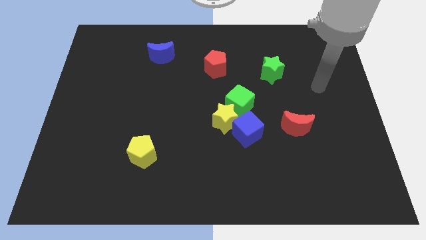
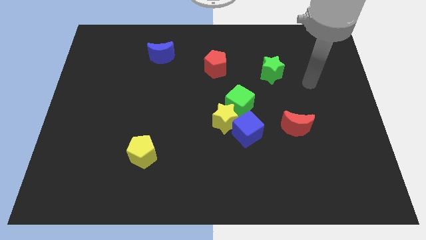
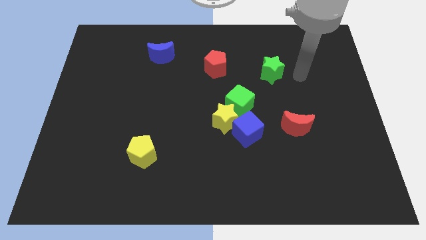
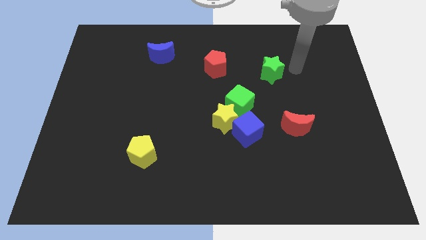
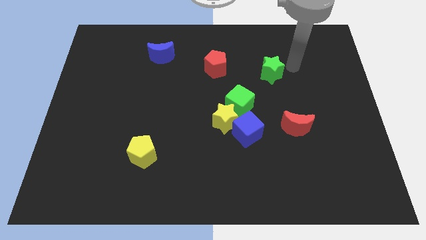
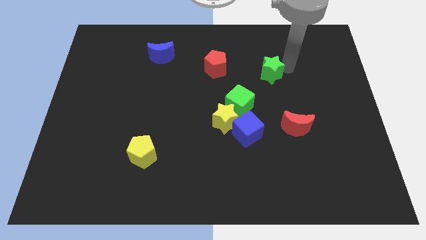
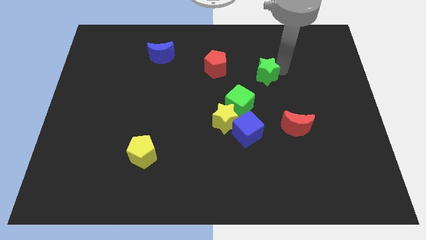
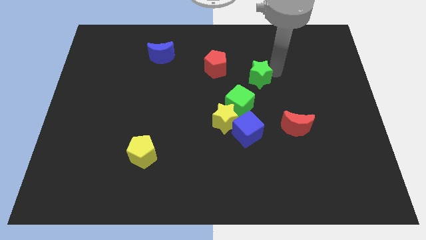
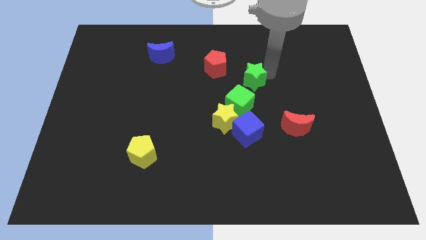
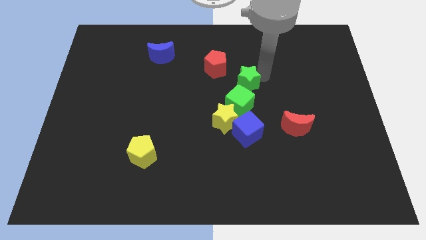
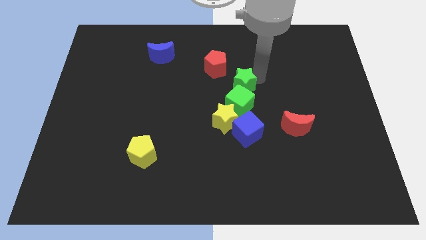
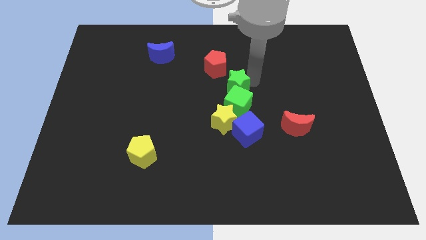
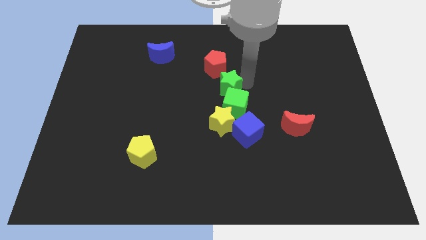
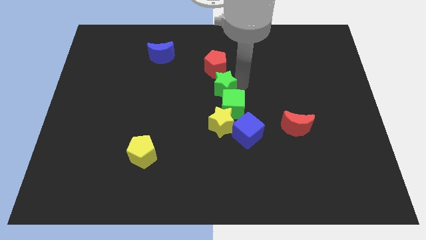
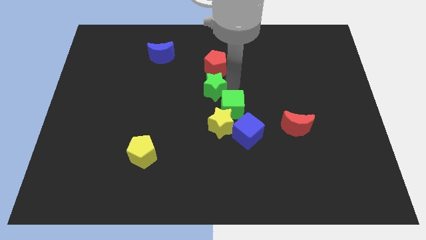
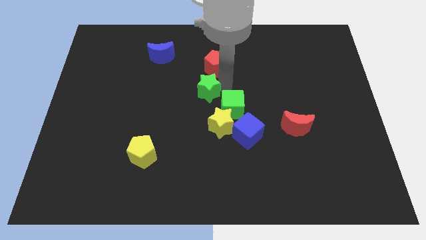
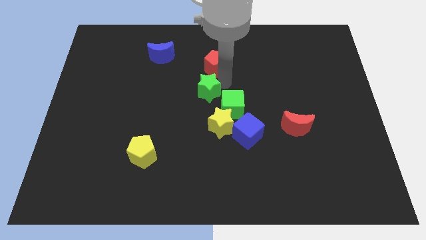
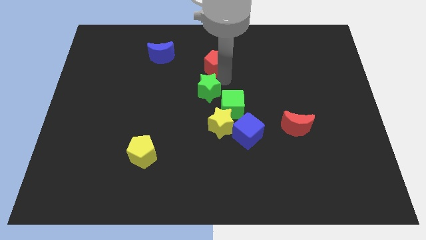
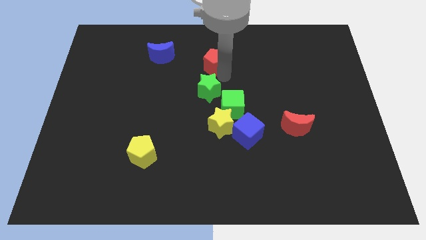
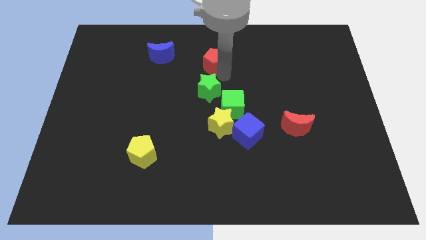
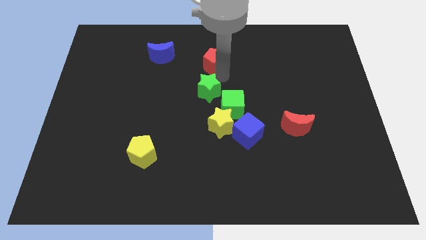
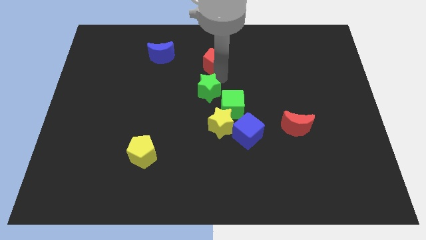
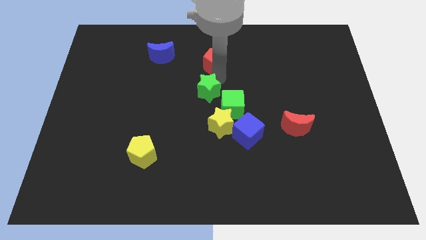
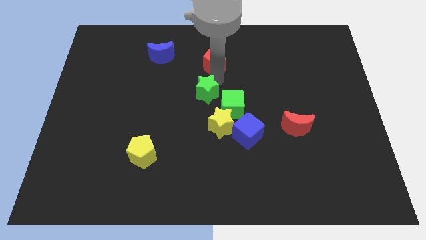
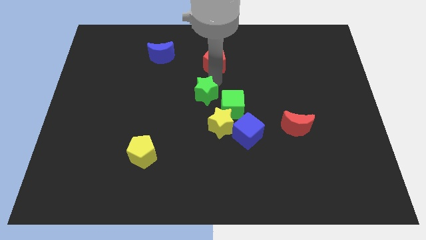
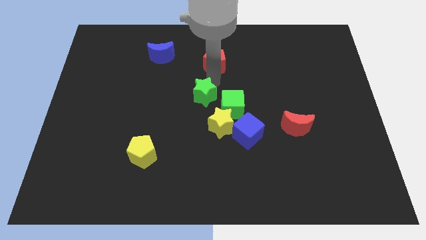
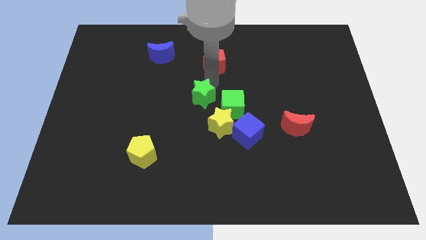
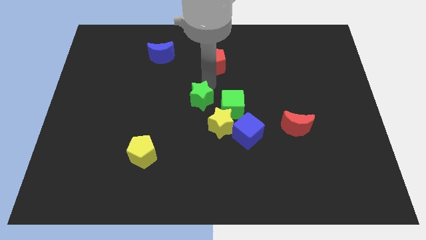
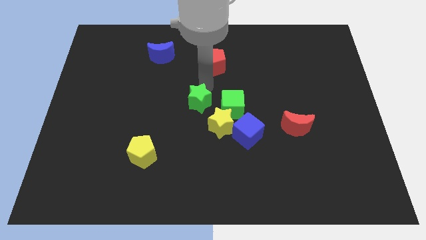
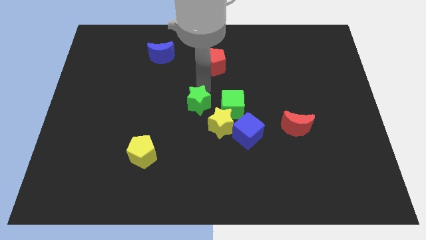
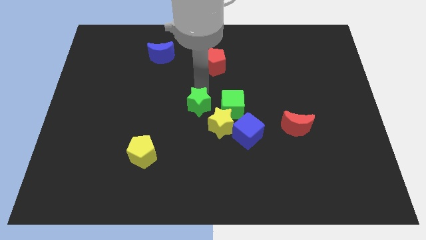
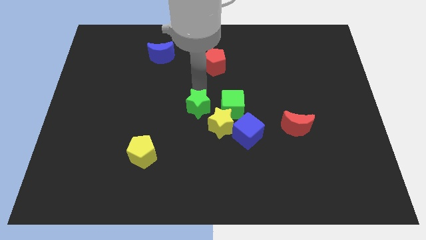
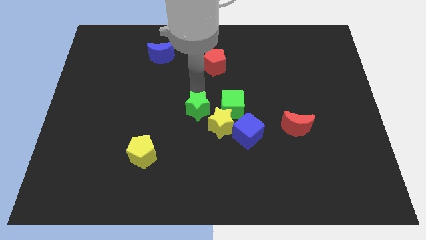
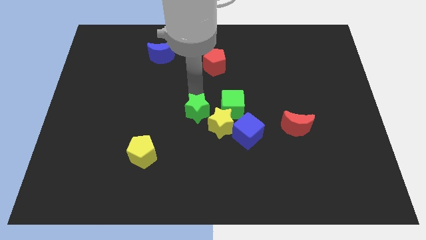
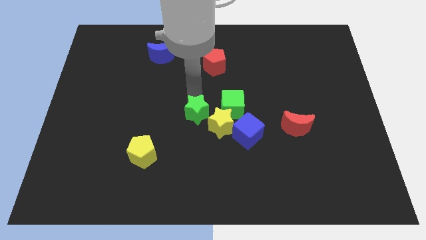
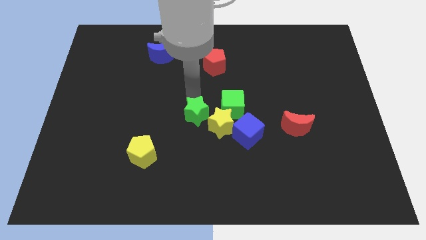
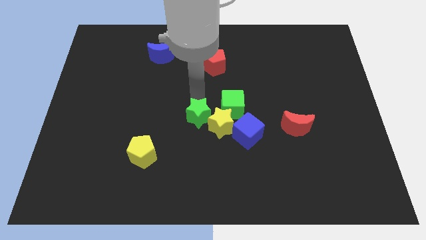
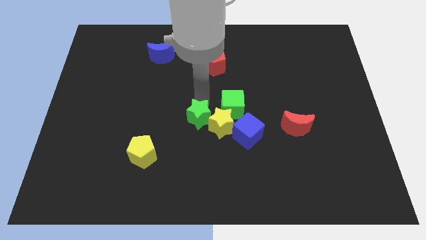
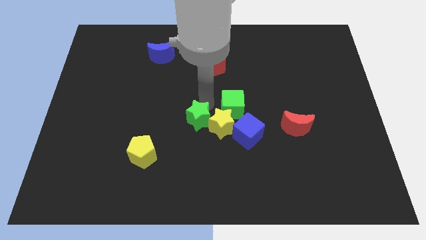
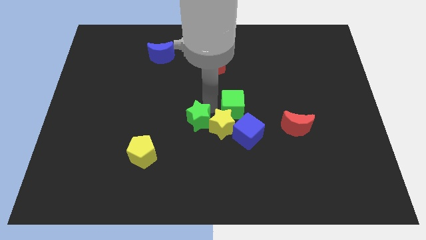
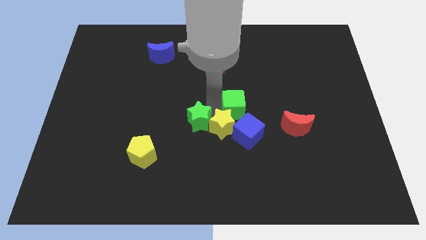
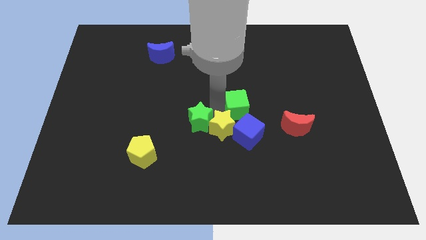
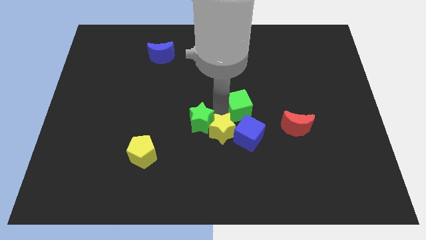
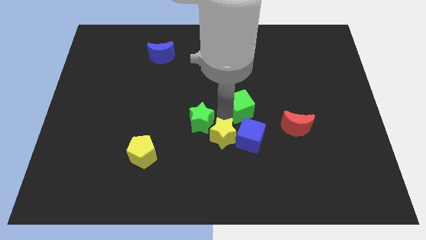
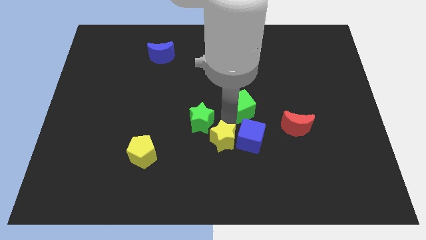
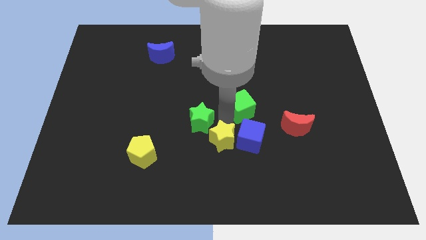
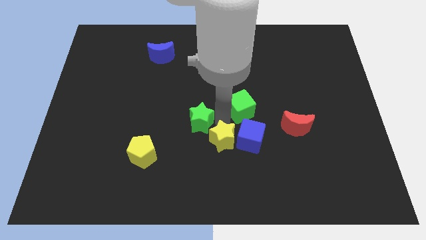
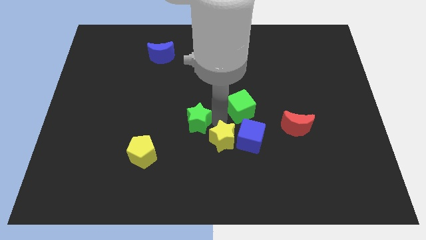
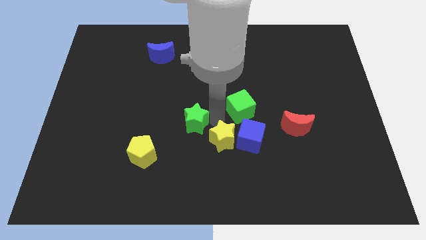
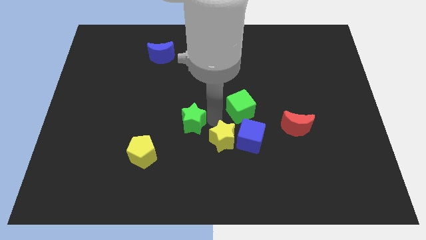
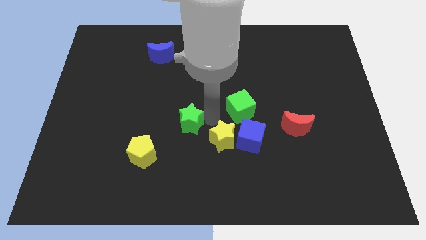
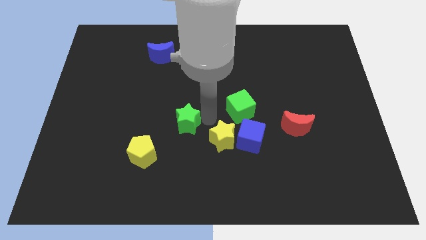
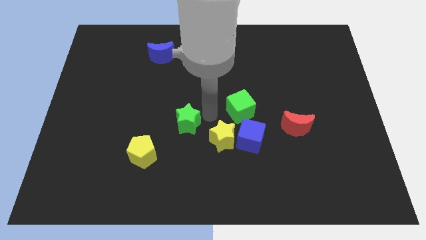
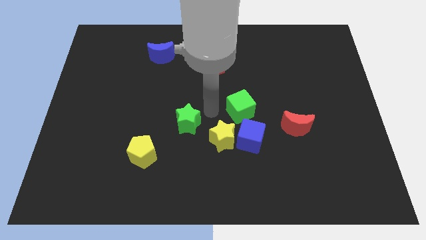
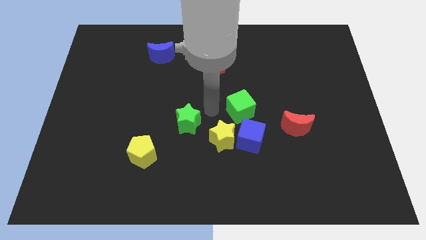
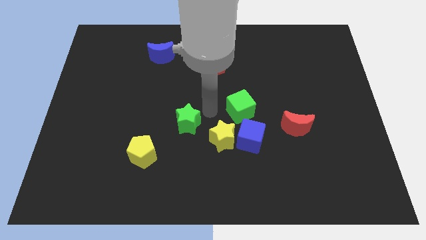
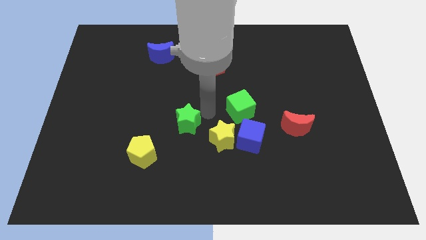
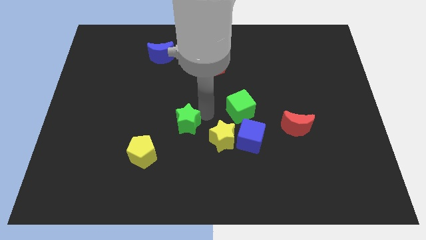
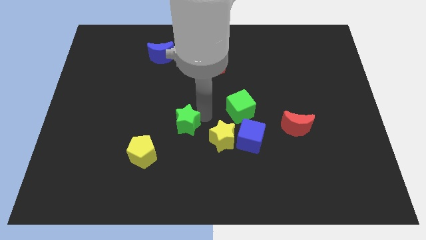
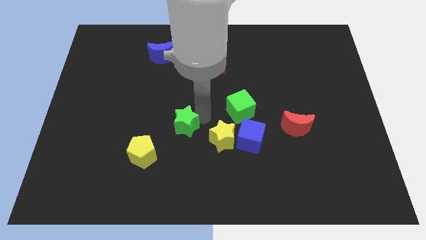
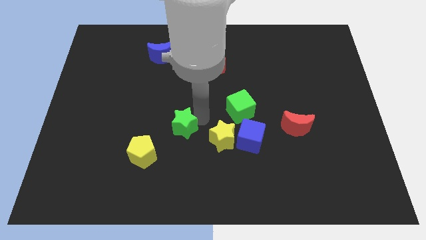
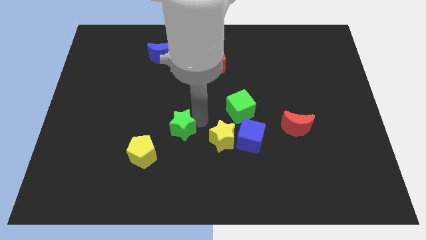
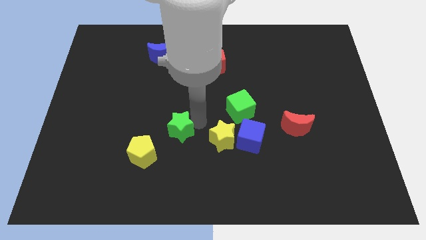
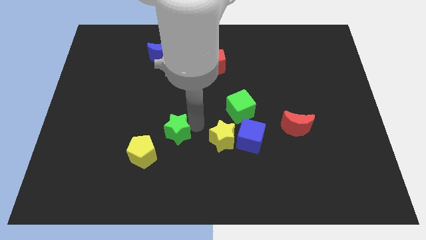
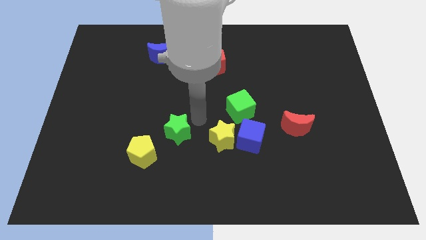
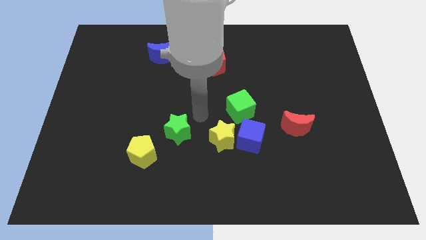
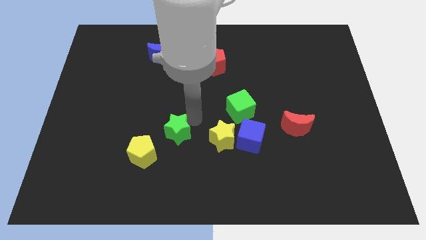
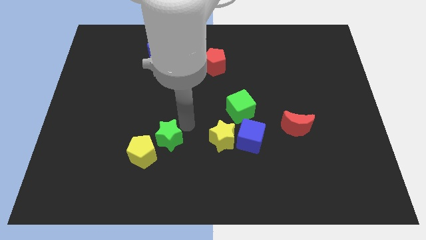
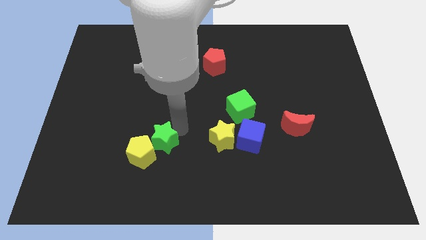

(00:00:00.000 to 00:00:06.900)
put the green star close to the yellow pentagon
